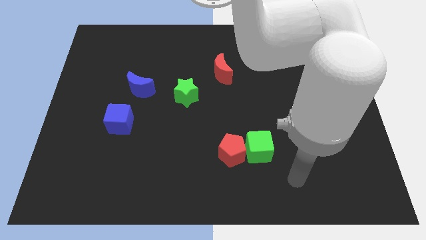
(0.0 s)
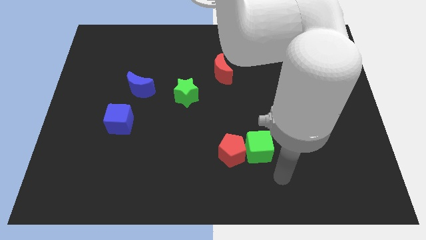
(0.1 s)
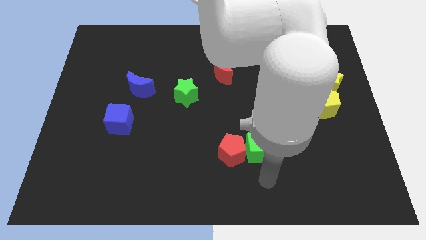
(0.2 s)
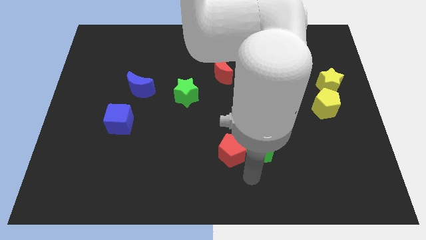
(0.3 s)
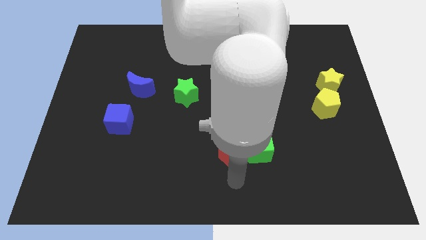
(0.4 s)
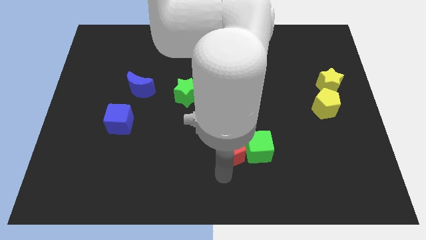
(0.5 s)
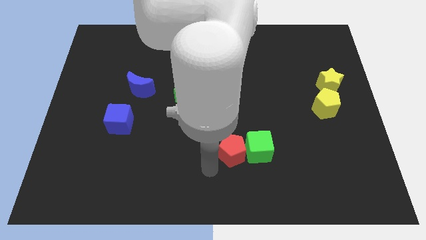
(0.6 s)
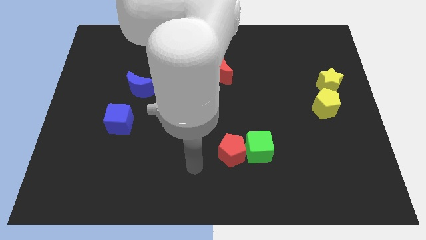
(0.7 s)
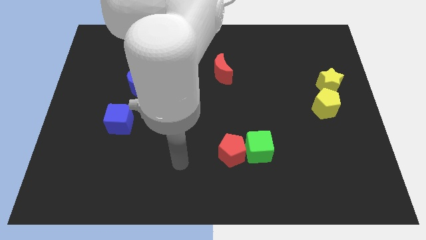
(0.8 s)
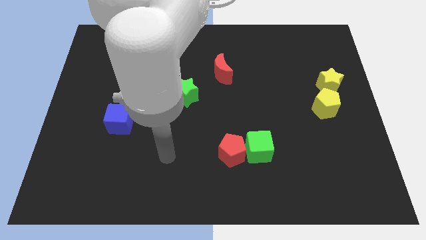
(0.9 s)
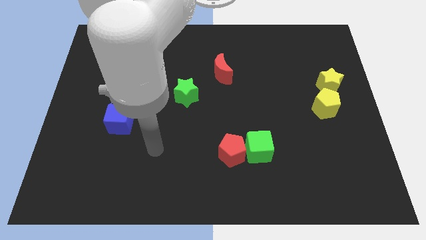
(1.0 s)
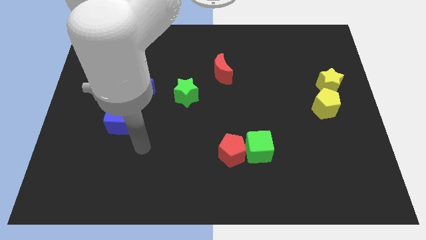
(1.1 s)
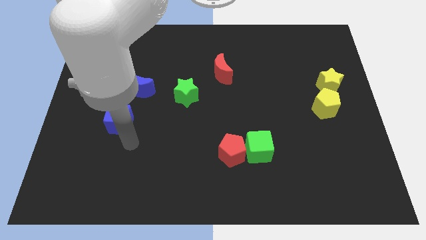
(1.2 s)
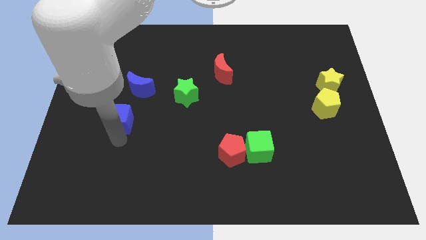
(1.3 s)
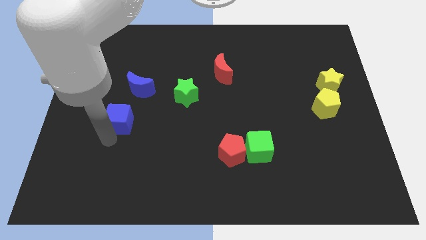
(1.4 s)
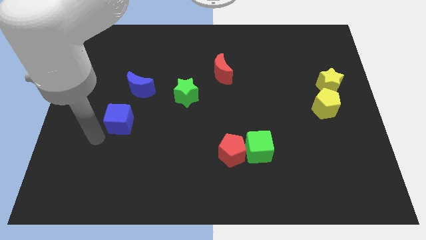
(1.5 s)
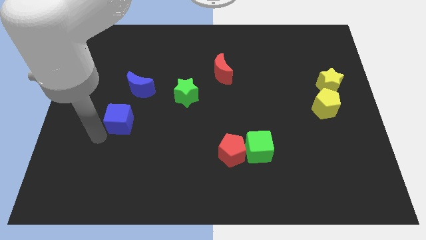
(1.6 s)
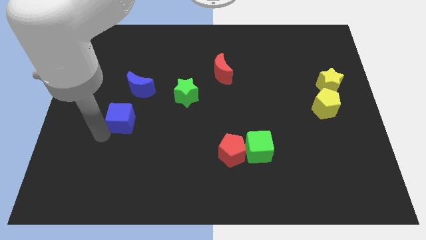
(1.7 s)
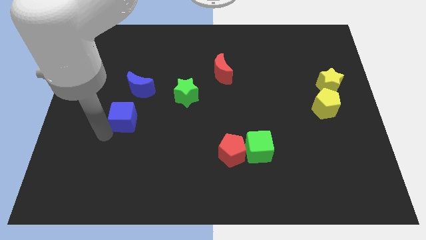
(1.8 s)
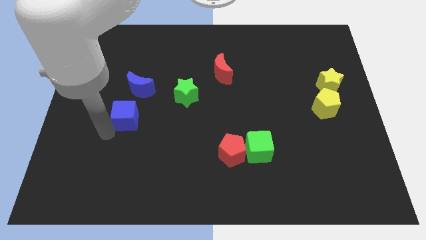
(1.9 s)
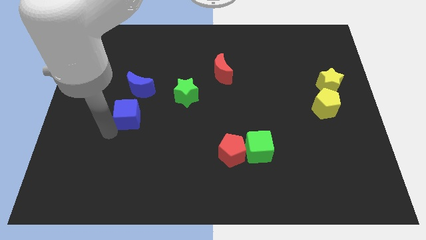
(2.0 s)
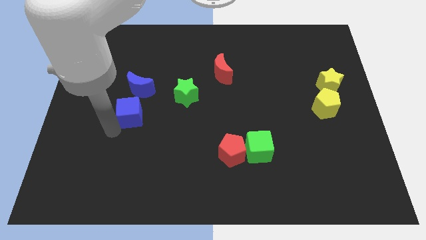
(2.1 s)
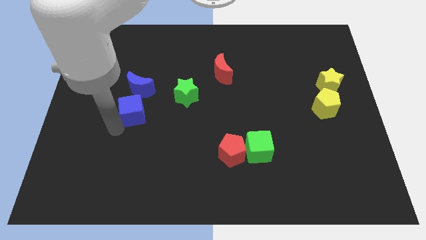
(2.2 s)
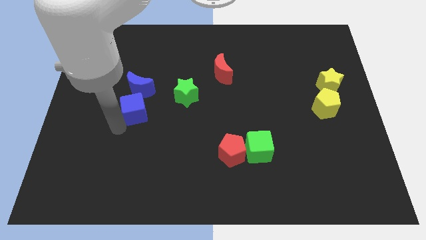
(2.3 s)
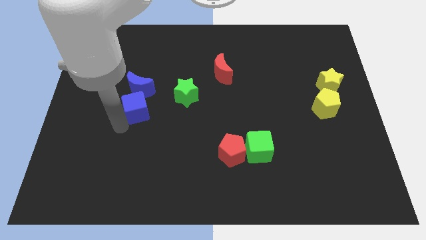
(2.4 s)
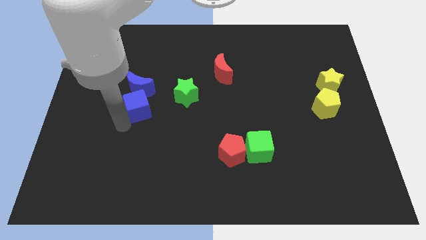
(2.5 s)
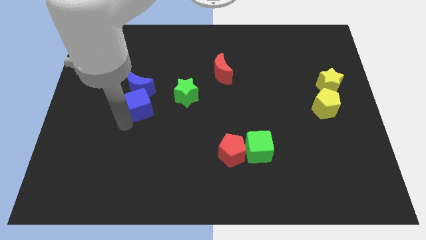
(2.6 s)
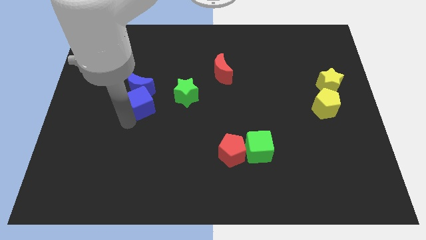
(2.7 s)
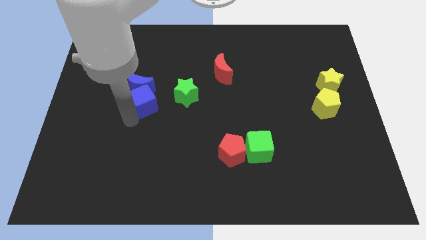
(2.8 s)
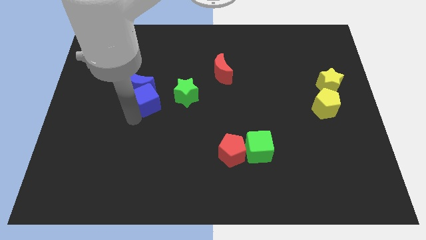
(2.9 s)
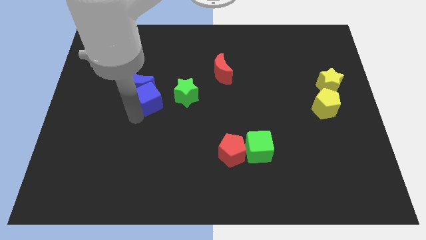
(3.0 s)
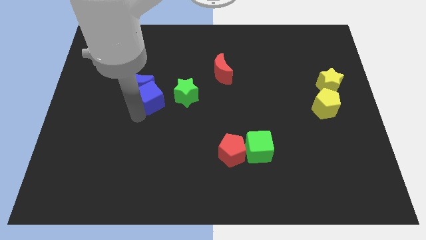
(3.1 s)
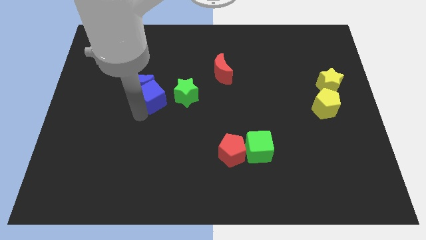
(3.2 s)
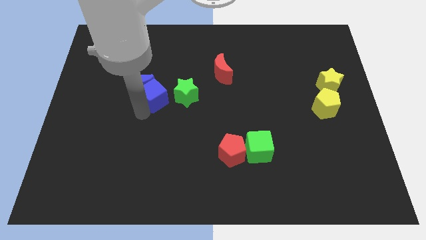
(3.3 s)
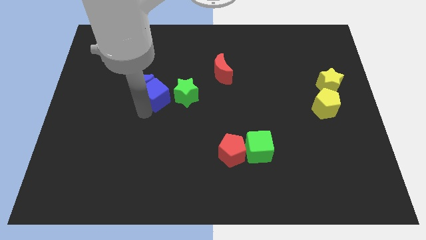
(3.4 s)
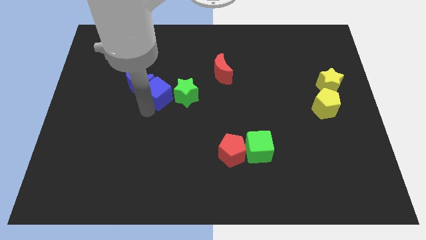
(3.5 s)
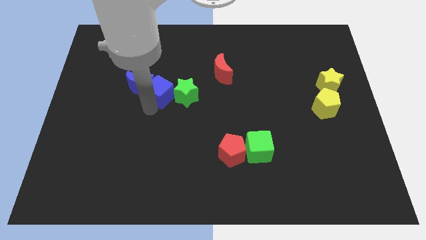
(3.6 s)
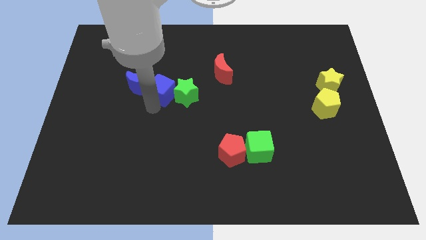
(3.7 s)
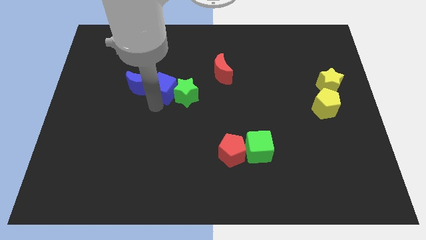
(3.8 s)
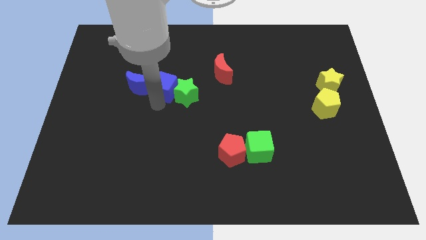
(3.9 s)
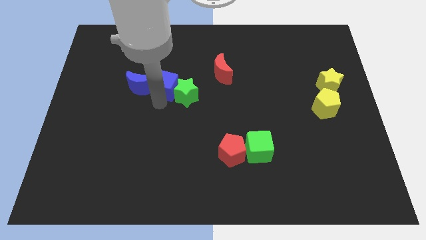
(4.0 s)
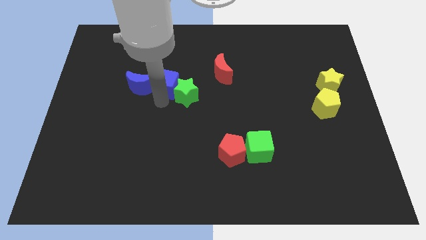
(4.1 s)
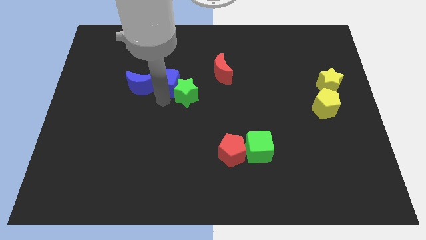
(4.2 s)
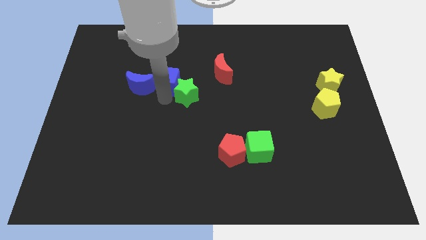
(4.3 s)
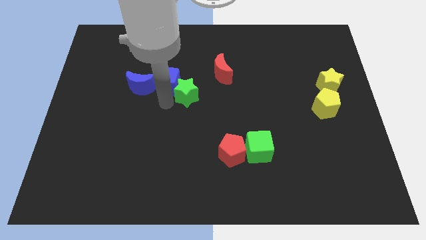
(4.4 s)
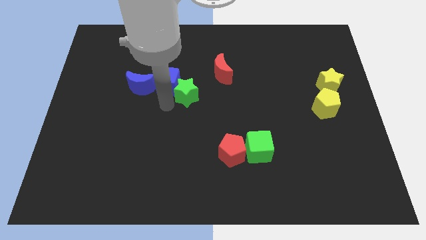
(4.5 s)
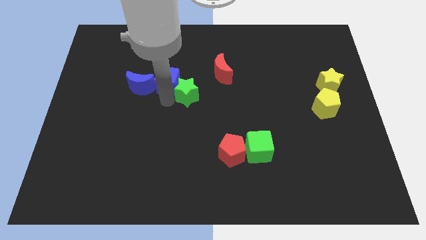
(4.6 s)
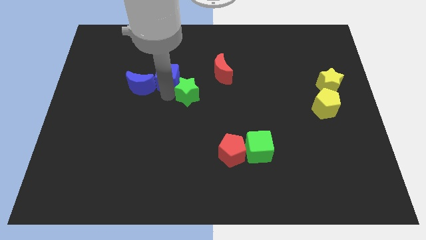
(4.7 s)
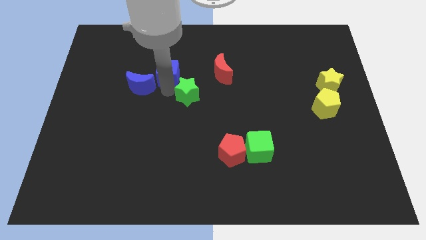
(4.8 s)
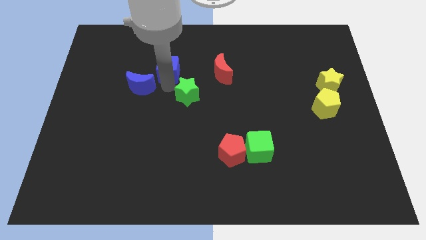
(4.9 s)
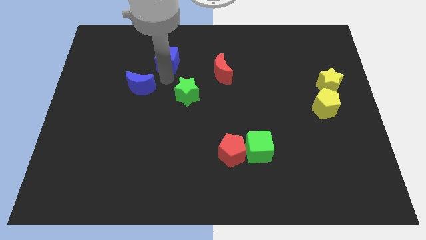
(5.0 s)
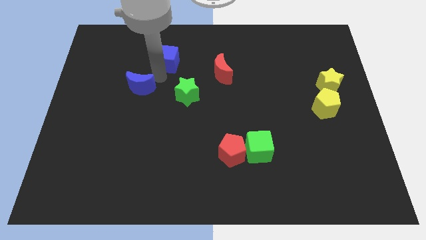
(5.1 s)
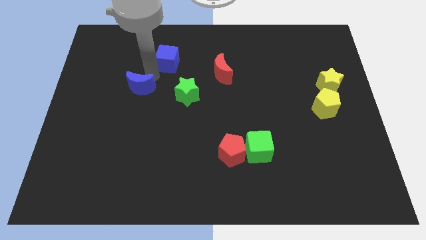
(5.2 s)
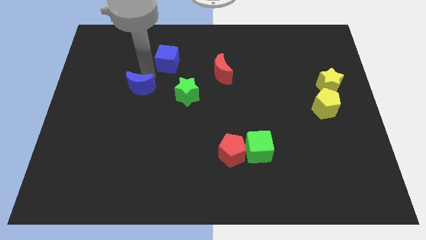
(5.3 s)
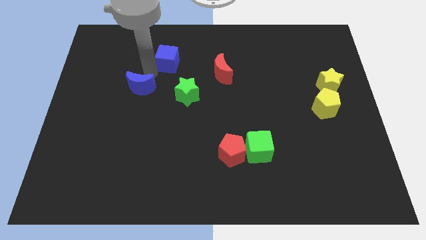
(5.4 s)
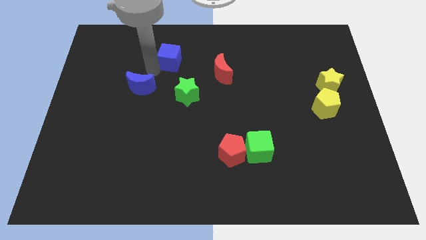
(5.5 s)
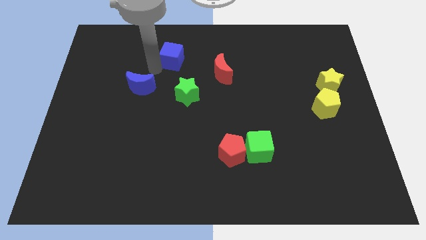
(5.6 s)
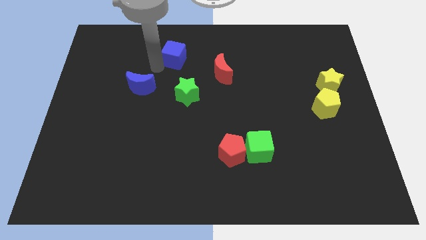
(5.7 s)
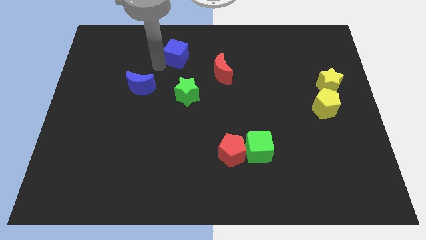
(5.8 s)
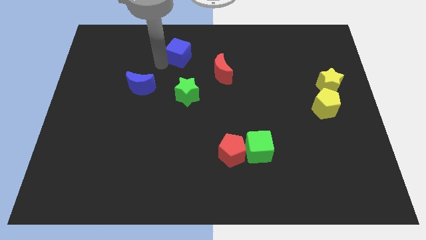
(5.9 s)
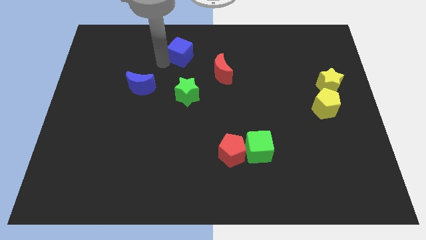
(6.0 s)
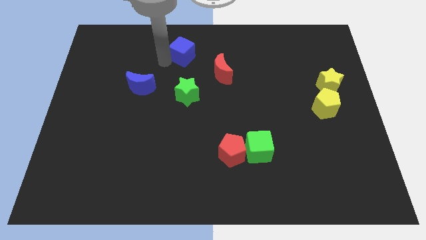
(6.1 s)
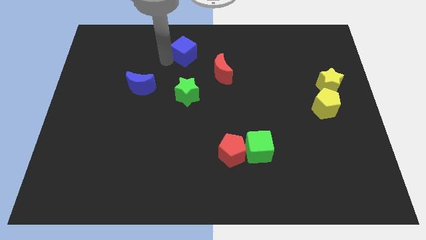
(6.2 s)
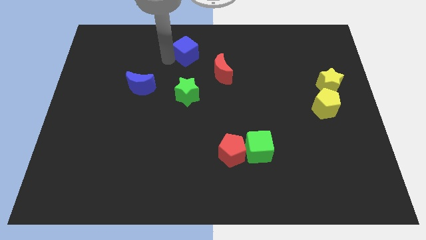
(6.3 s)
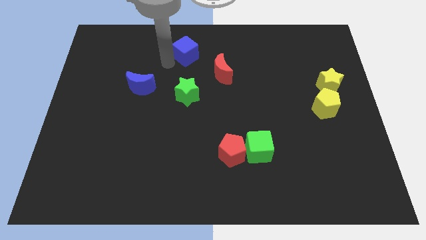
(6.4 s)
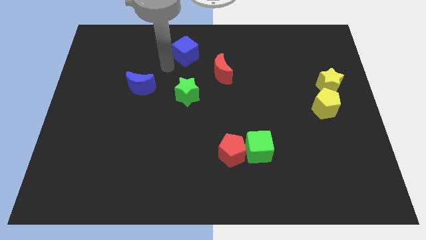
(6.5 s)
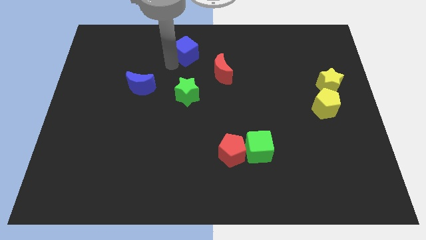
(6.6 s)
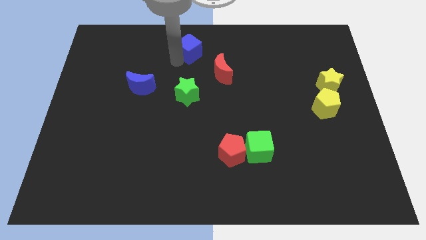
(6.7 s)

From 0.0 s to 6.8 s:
slide the blue cube to the top side
